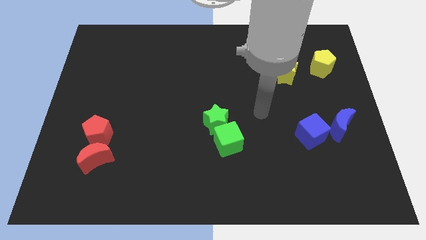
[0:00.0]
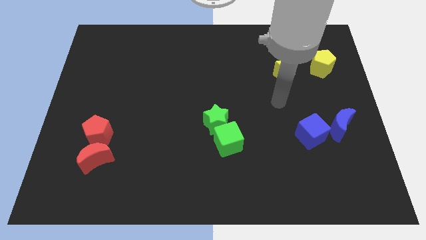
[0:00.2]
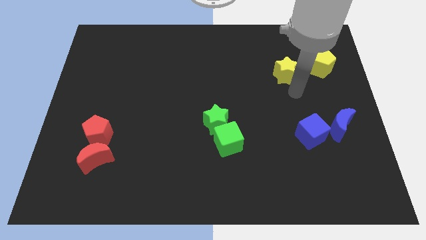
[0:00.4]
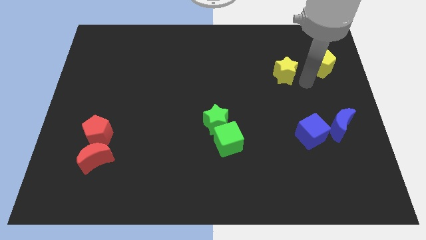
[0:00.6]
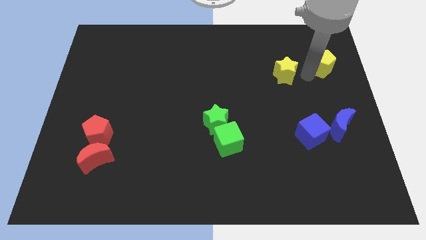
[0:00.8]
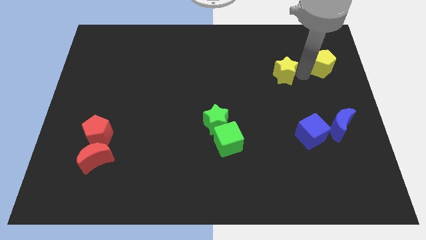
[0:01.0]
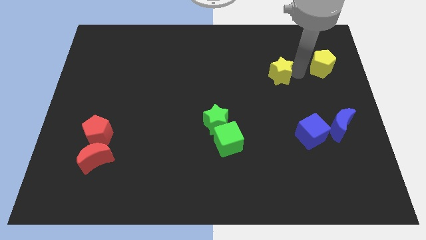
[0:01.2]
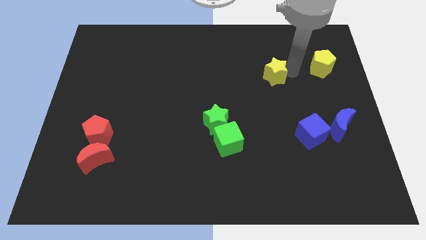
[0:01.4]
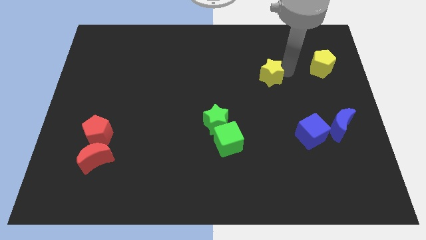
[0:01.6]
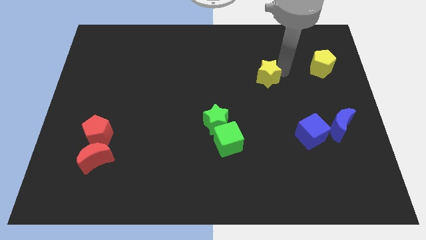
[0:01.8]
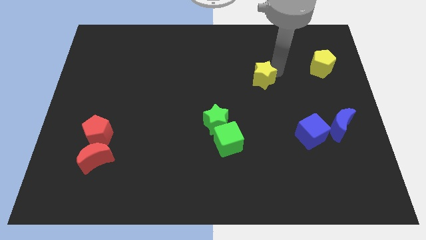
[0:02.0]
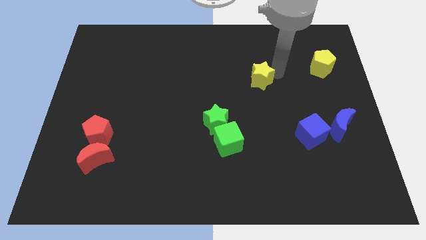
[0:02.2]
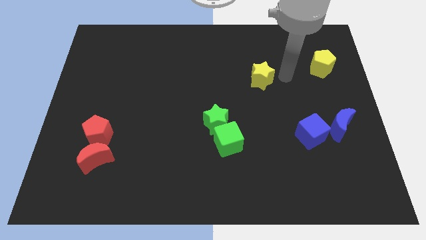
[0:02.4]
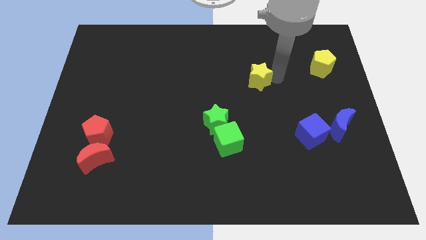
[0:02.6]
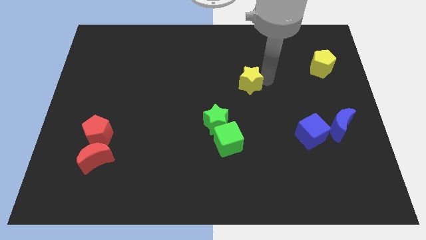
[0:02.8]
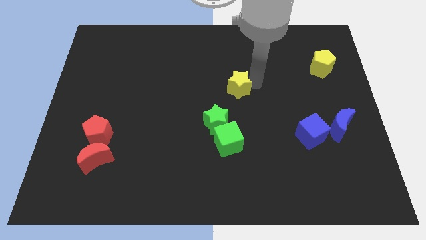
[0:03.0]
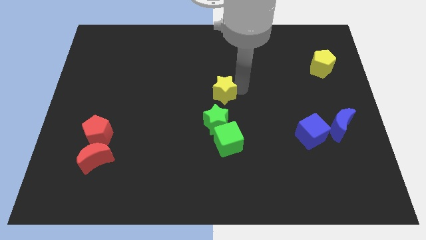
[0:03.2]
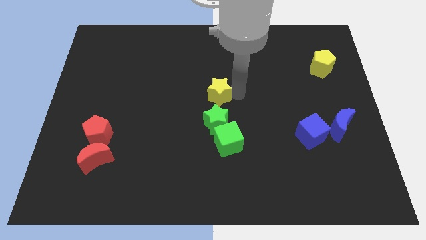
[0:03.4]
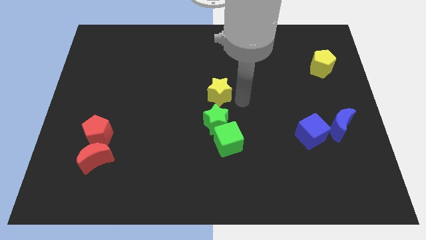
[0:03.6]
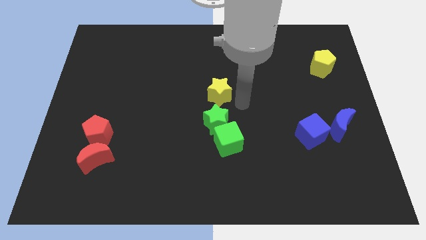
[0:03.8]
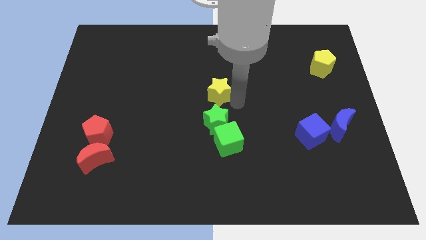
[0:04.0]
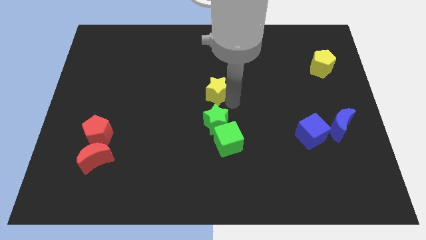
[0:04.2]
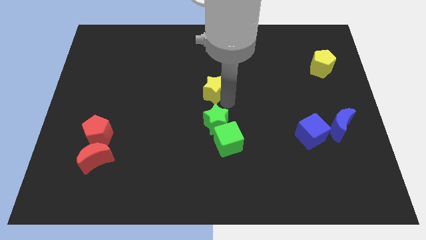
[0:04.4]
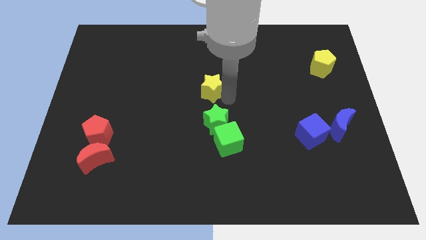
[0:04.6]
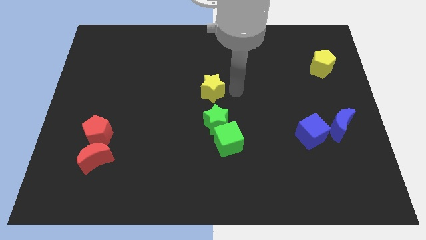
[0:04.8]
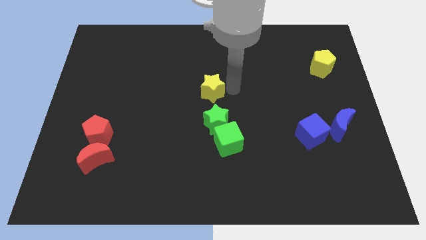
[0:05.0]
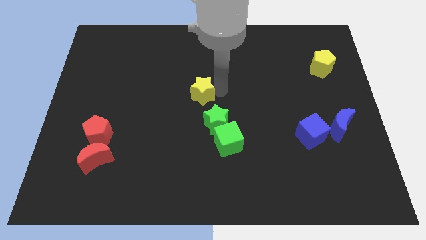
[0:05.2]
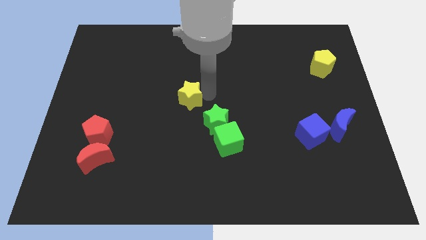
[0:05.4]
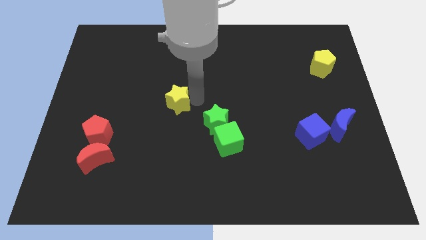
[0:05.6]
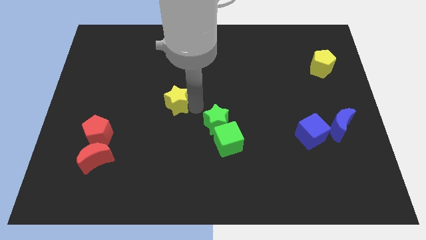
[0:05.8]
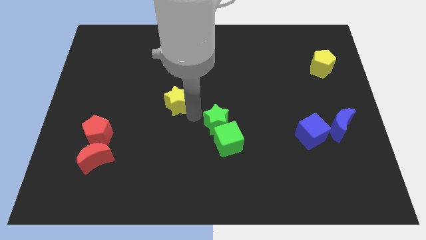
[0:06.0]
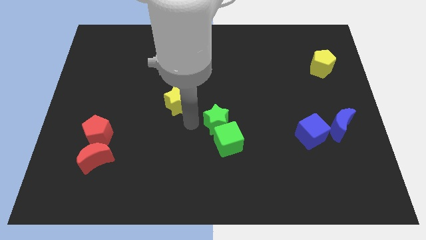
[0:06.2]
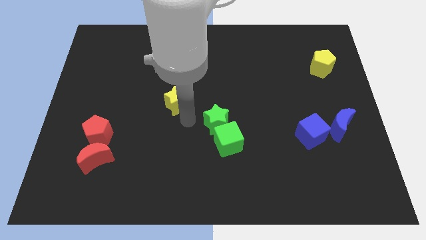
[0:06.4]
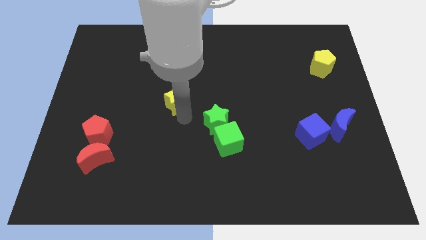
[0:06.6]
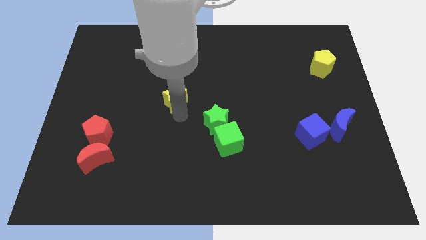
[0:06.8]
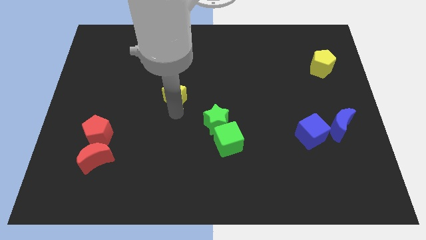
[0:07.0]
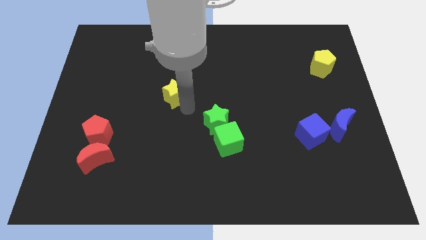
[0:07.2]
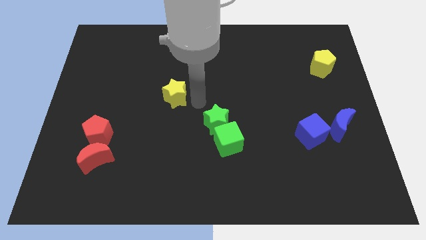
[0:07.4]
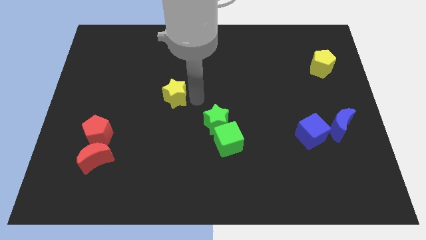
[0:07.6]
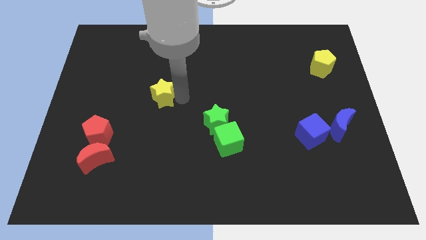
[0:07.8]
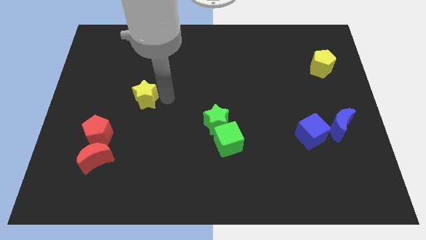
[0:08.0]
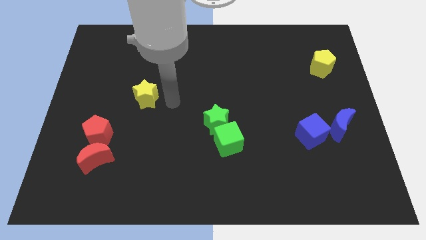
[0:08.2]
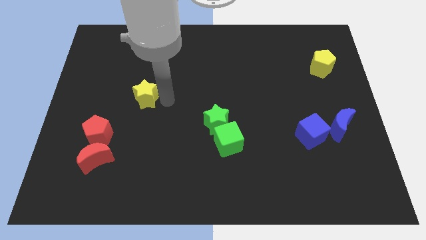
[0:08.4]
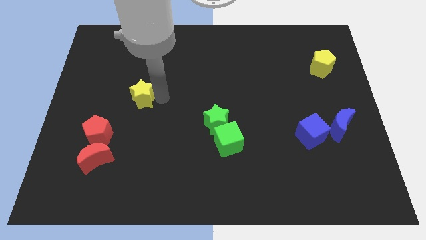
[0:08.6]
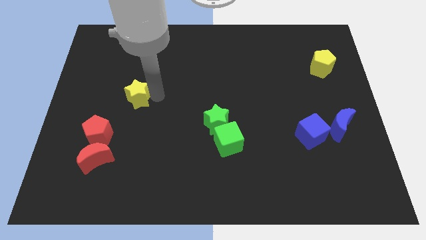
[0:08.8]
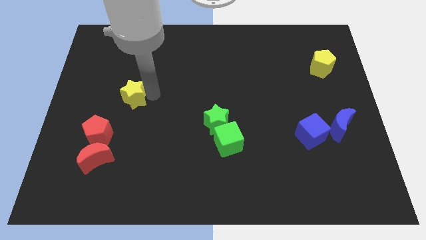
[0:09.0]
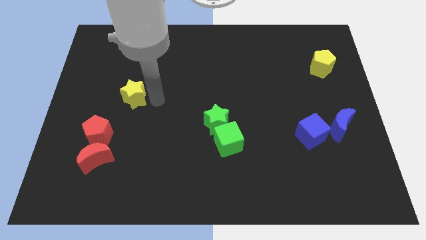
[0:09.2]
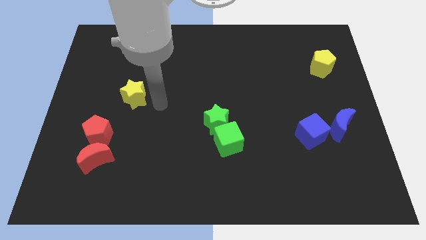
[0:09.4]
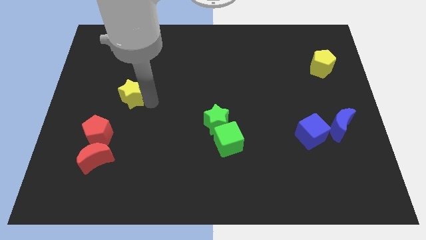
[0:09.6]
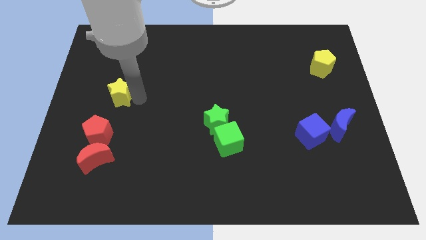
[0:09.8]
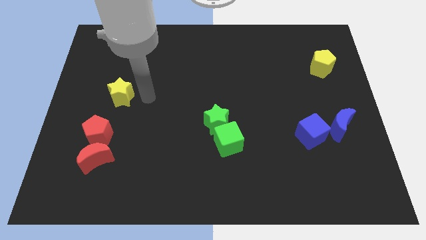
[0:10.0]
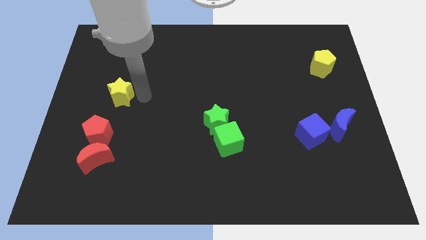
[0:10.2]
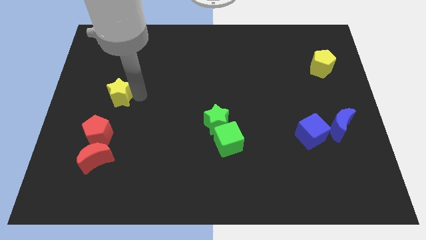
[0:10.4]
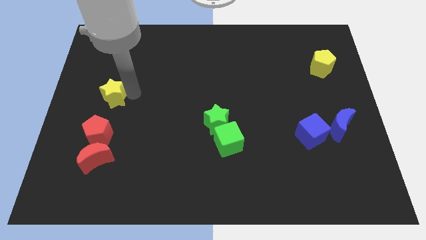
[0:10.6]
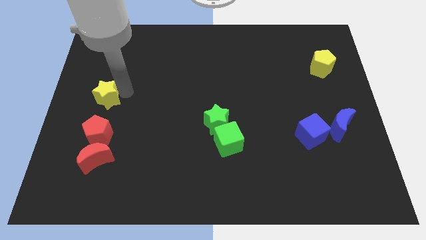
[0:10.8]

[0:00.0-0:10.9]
push the yellow star to the center left

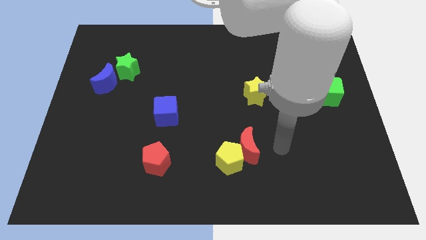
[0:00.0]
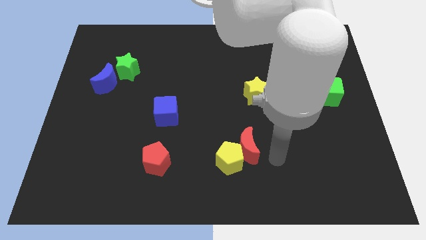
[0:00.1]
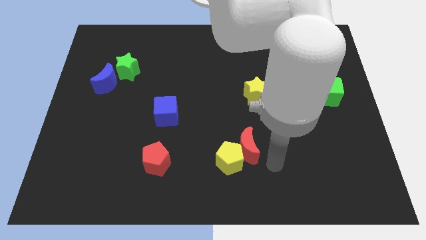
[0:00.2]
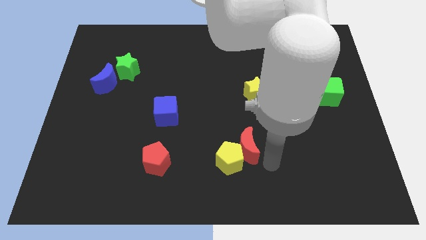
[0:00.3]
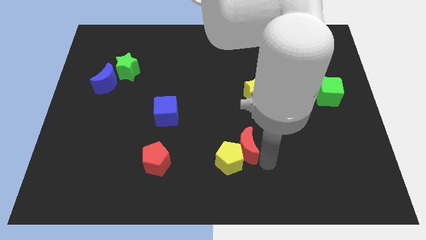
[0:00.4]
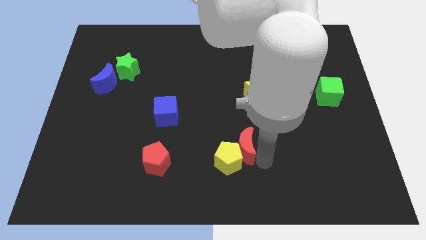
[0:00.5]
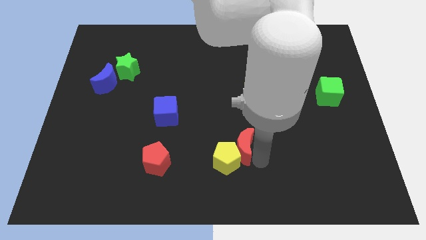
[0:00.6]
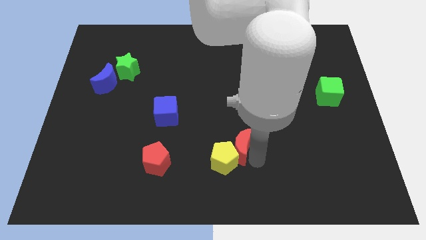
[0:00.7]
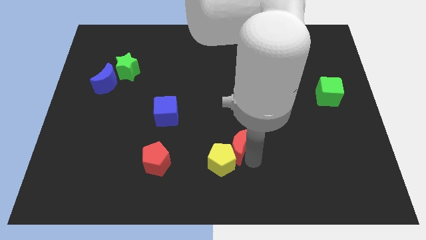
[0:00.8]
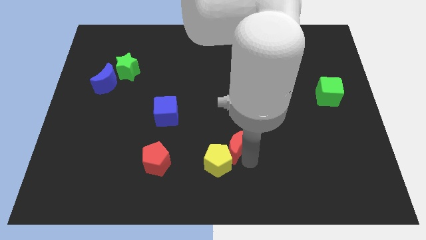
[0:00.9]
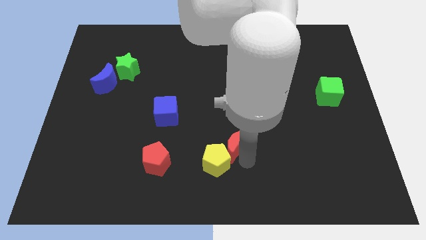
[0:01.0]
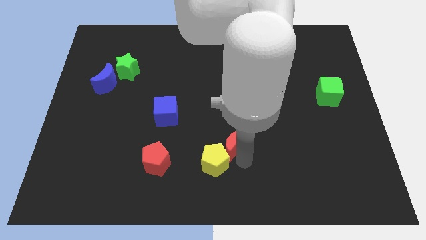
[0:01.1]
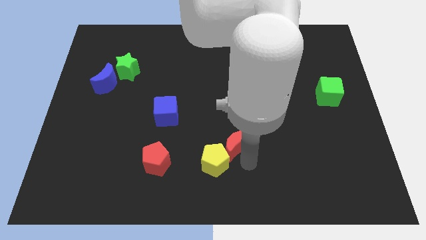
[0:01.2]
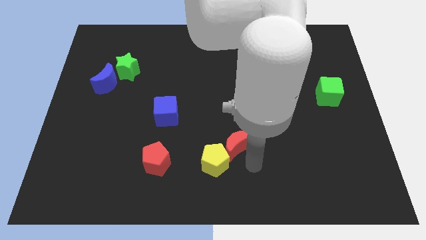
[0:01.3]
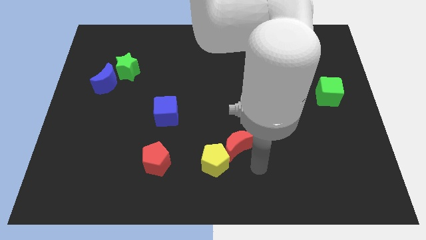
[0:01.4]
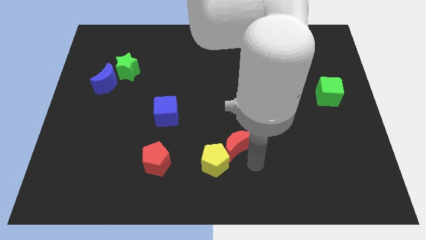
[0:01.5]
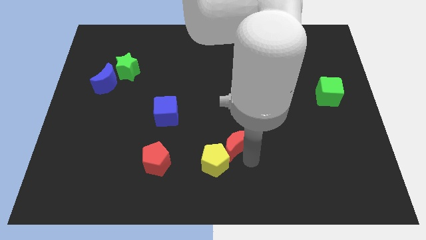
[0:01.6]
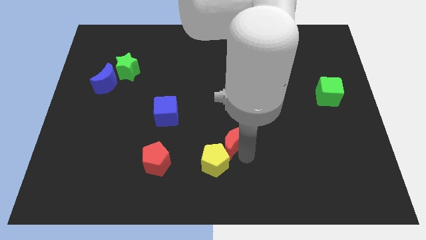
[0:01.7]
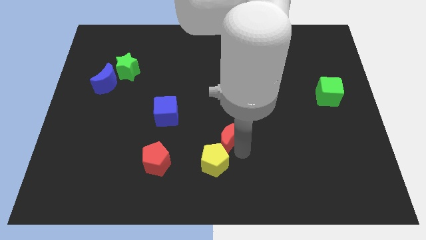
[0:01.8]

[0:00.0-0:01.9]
put the red moon to the middle of the board
